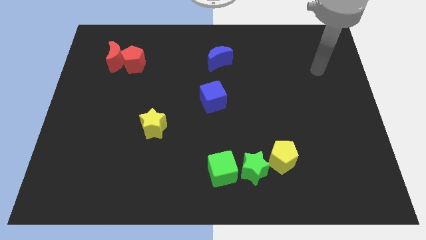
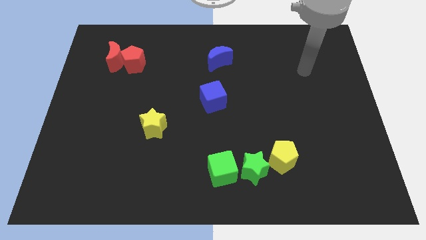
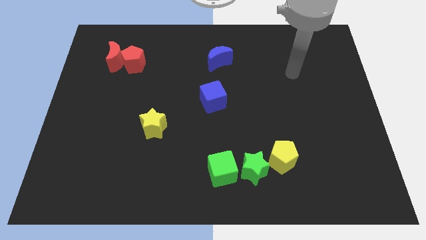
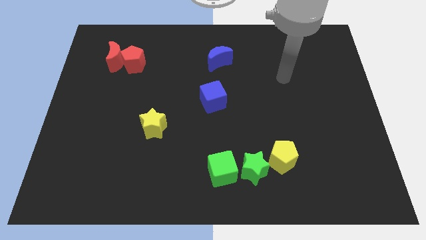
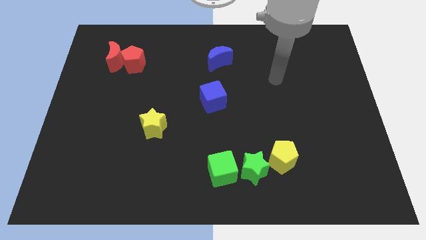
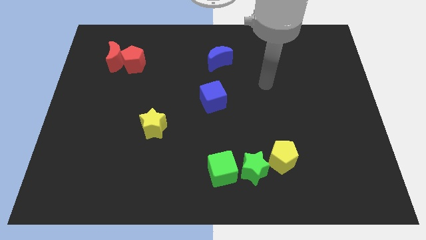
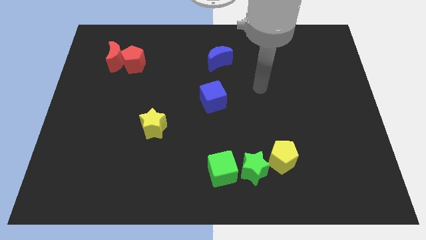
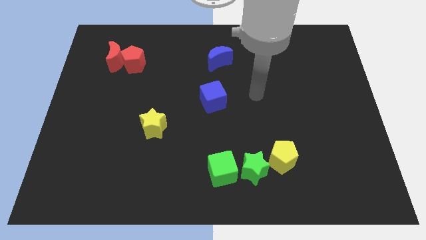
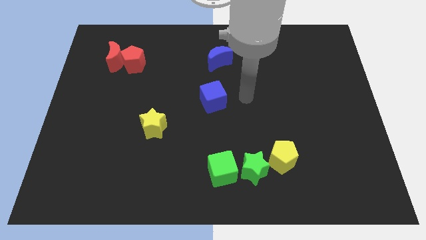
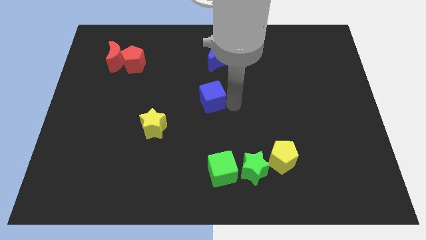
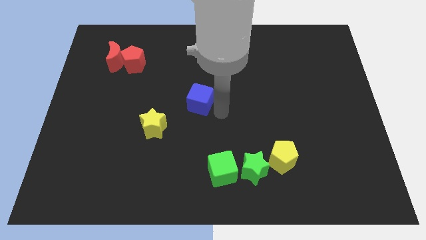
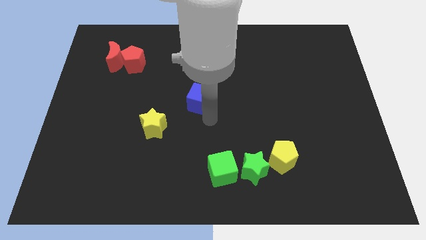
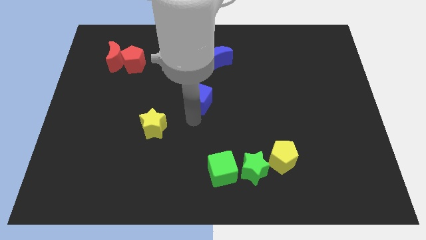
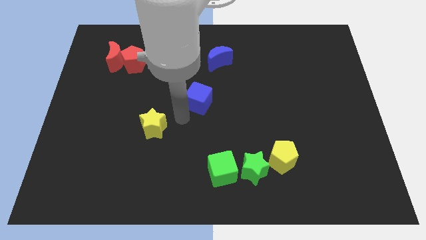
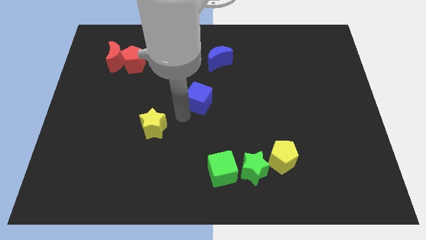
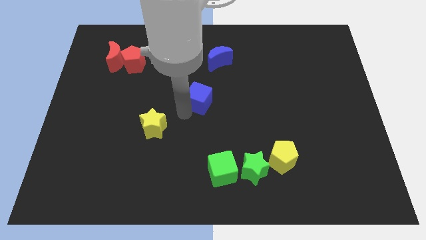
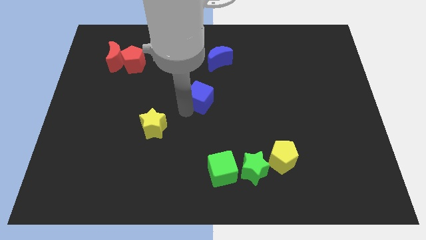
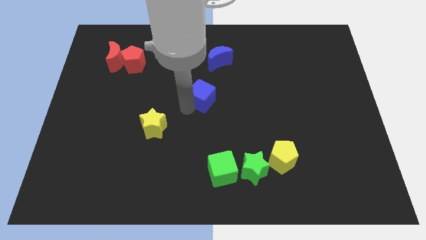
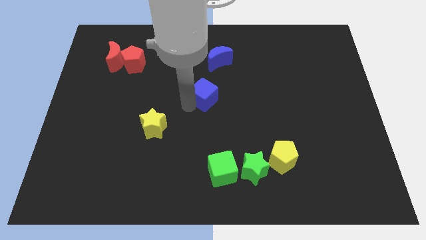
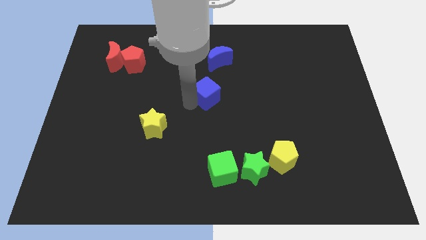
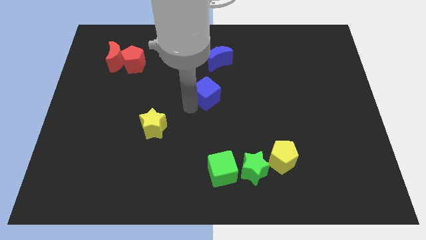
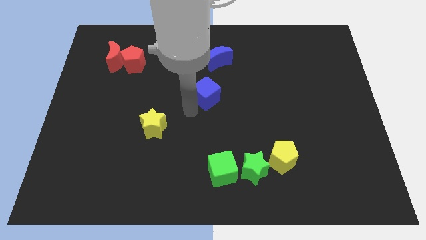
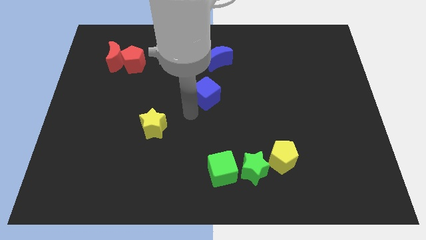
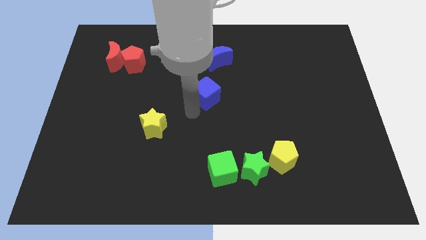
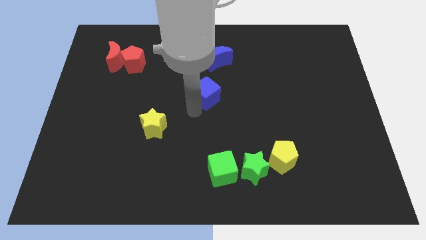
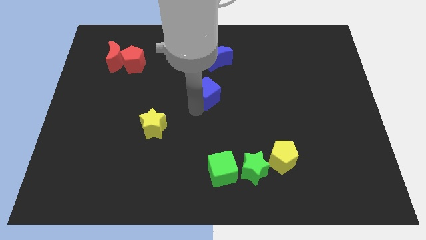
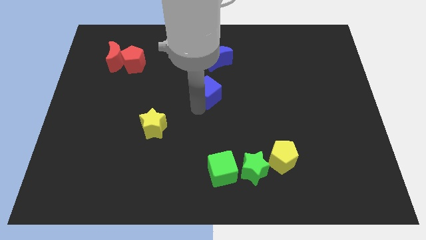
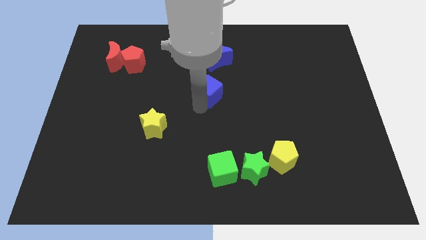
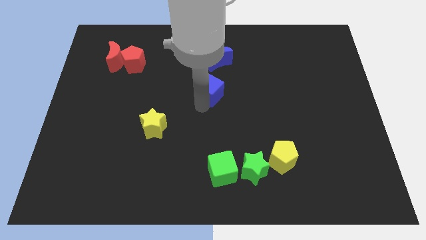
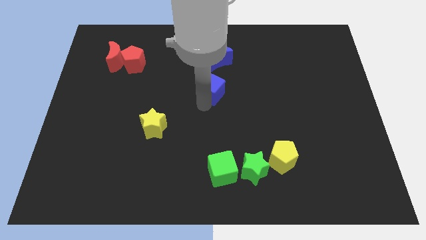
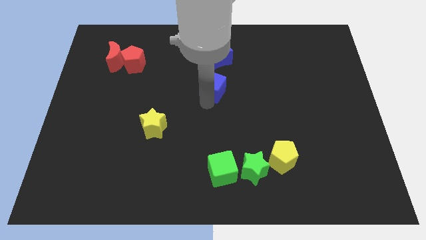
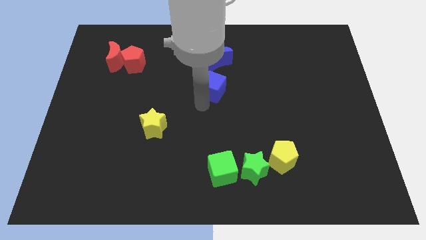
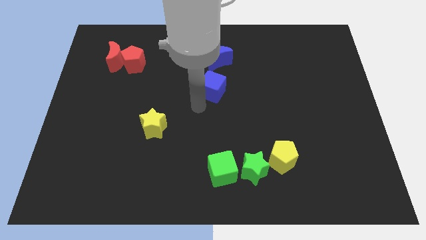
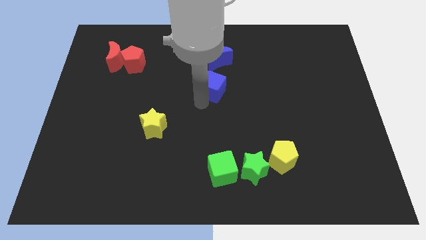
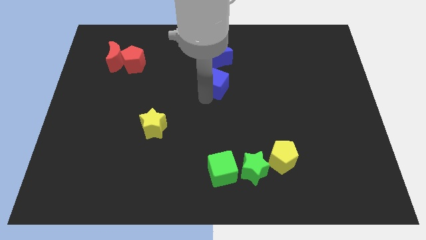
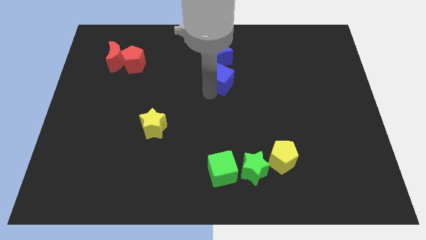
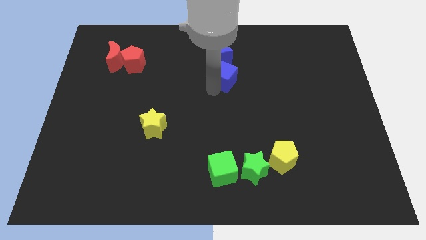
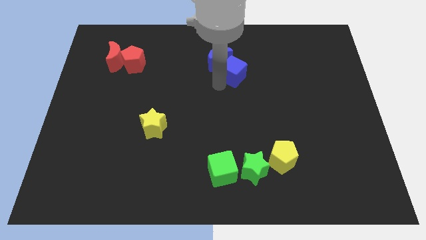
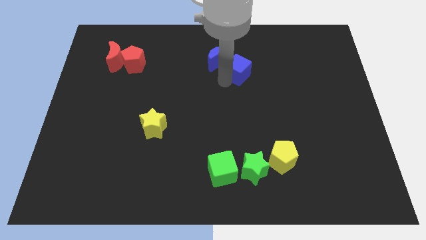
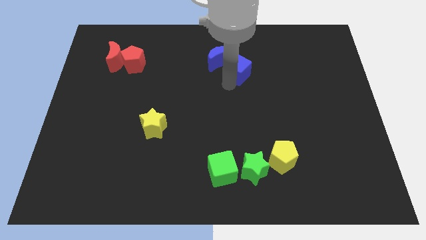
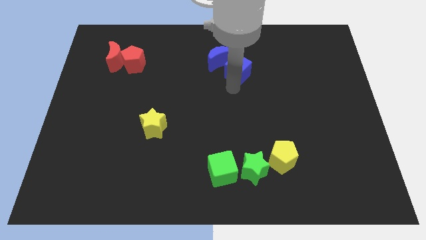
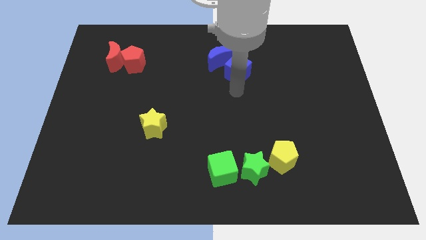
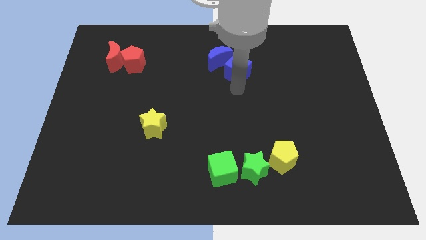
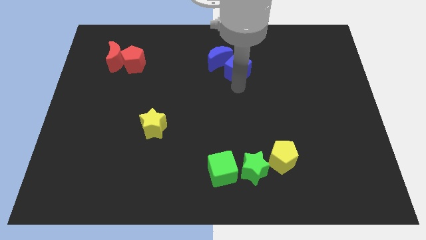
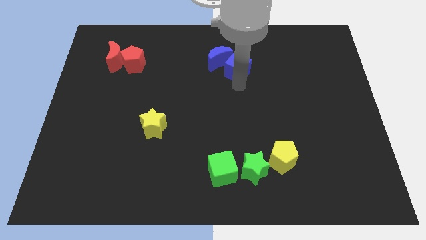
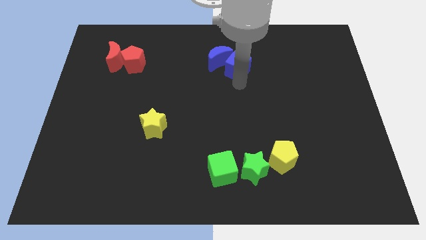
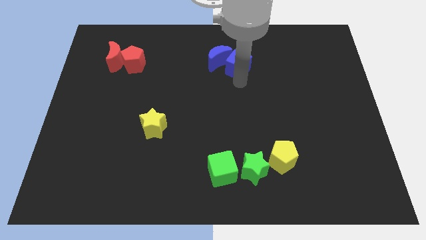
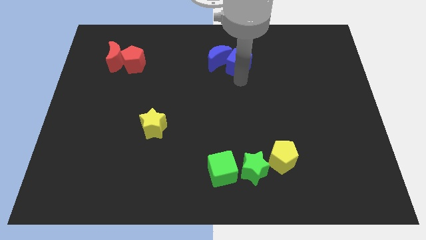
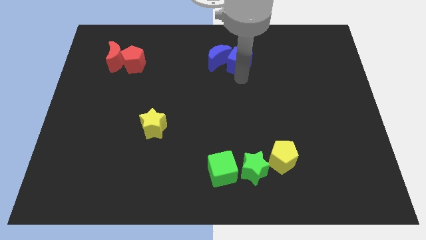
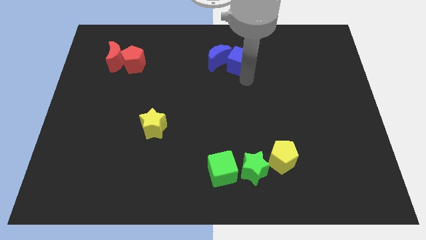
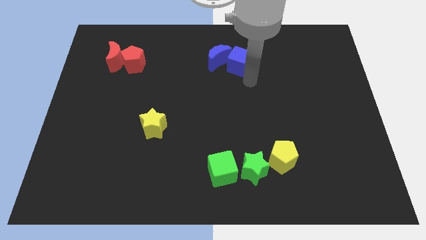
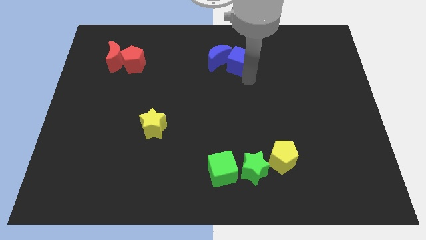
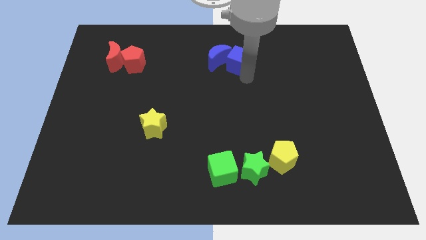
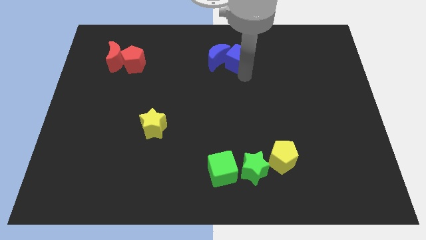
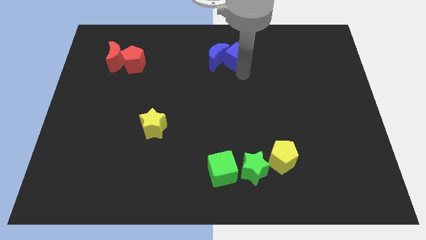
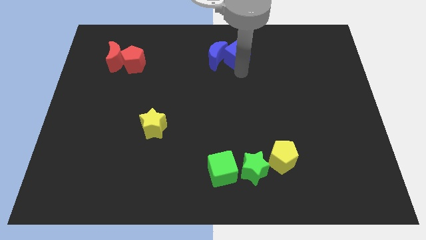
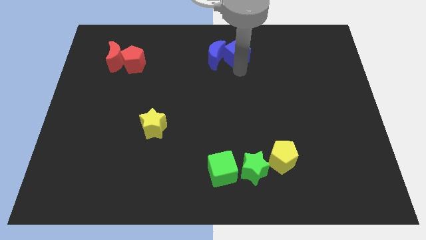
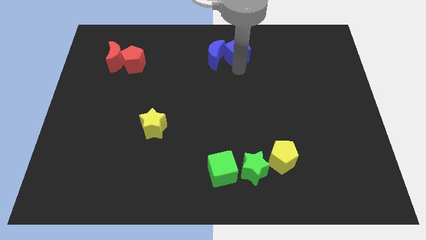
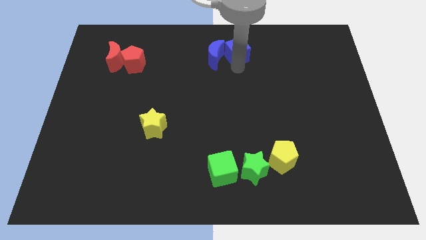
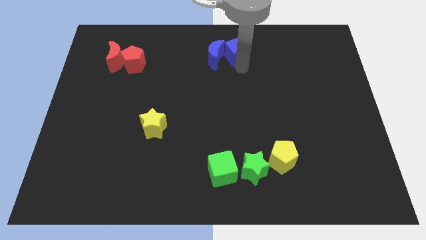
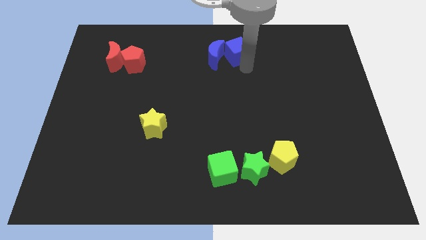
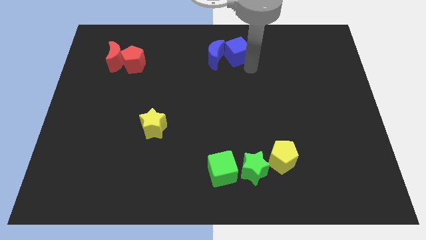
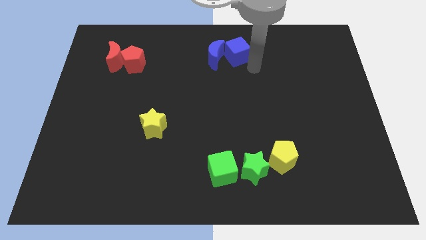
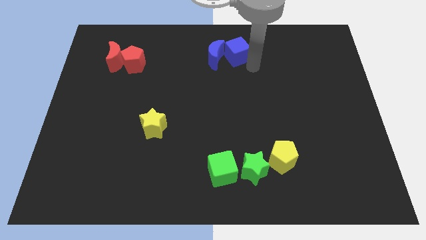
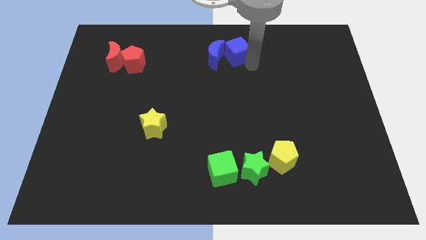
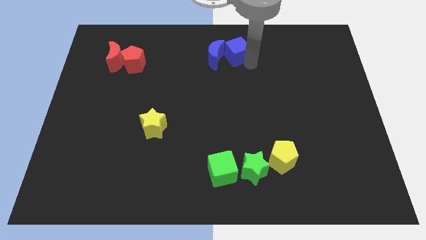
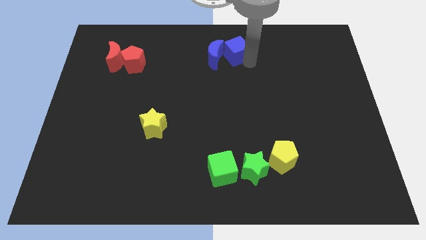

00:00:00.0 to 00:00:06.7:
slide the blue cube to the top
